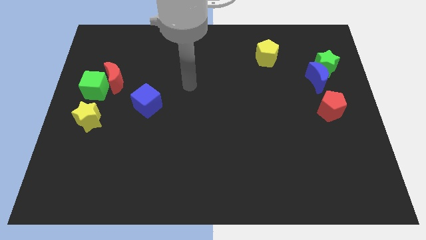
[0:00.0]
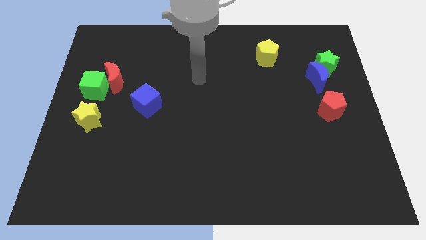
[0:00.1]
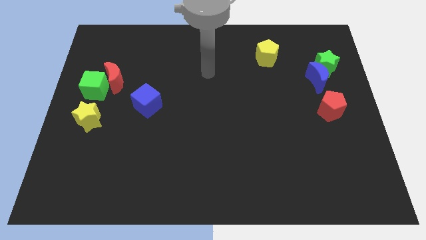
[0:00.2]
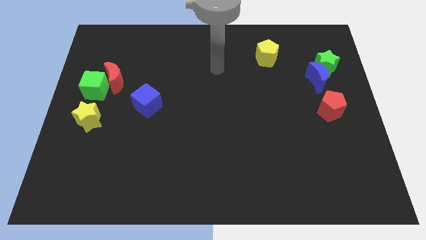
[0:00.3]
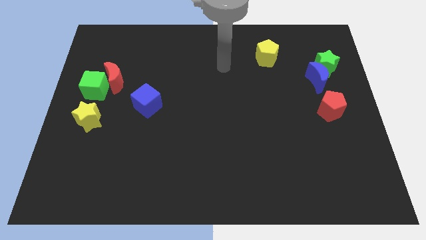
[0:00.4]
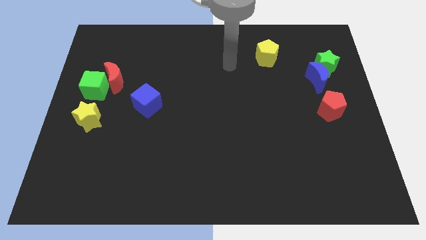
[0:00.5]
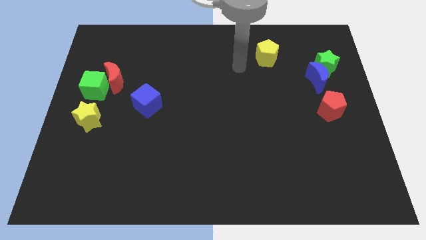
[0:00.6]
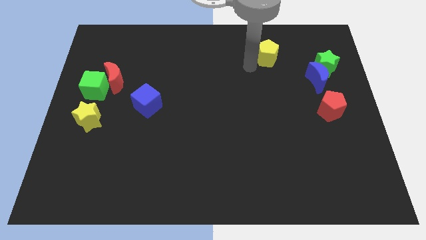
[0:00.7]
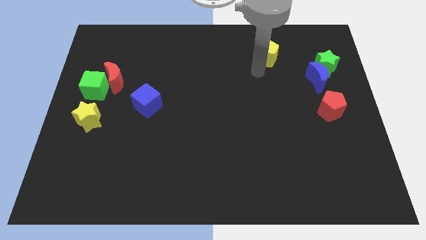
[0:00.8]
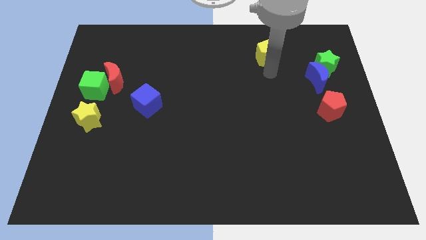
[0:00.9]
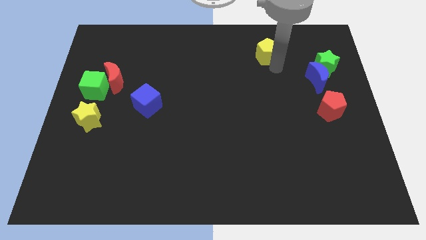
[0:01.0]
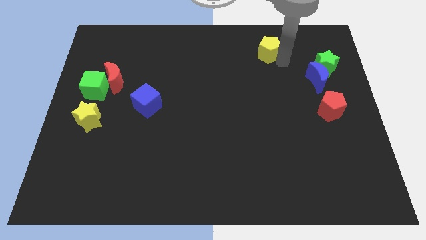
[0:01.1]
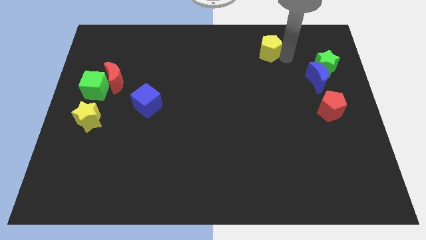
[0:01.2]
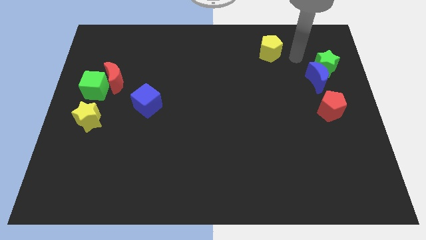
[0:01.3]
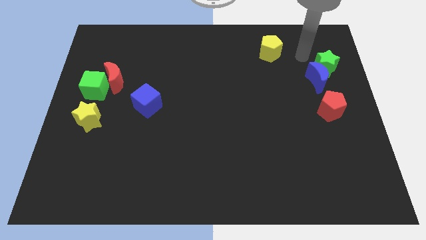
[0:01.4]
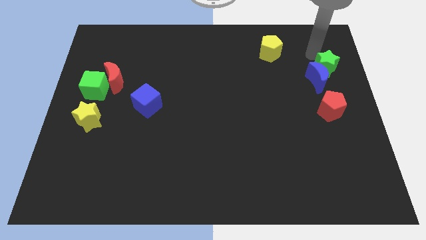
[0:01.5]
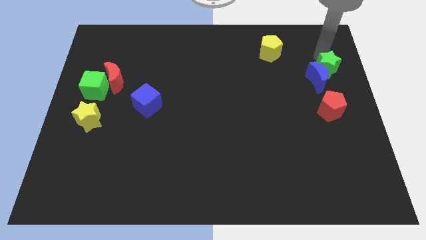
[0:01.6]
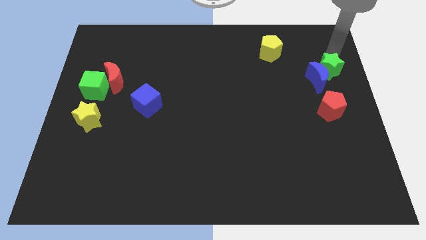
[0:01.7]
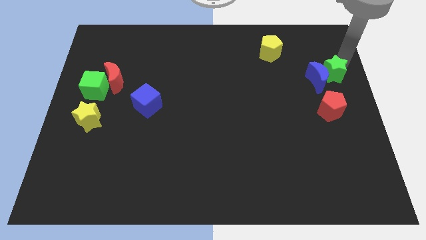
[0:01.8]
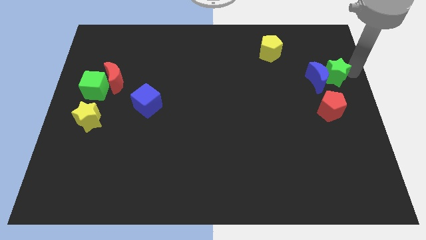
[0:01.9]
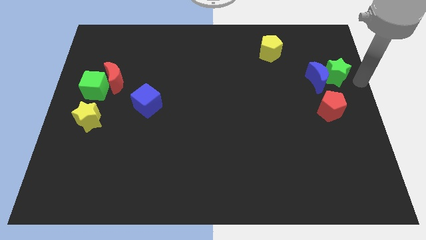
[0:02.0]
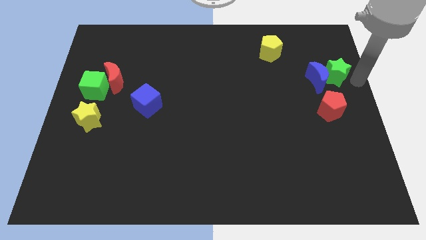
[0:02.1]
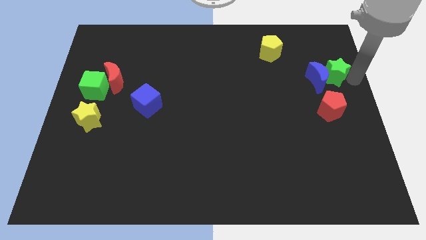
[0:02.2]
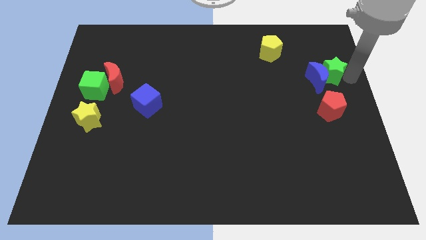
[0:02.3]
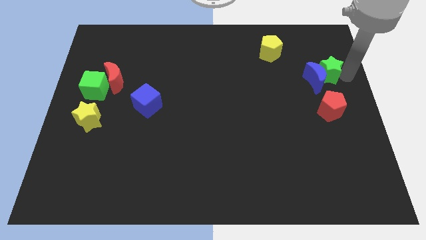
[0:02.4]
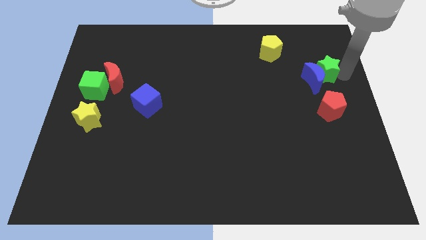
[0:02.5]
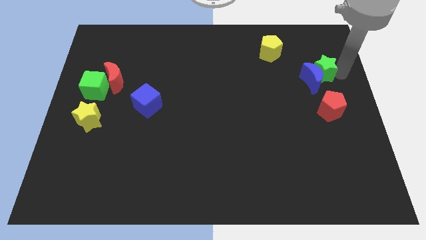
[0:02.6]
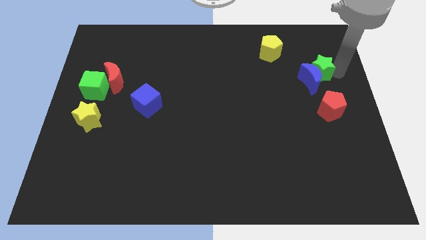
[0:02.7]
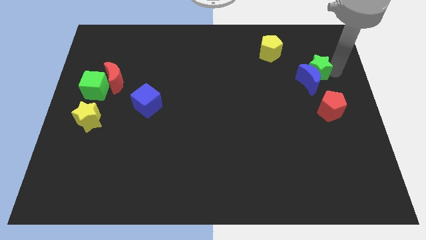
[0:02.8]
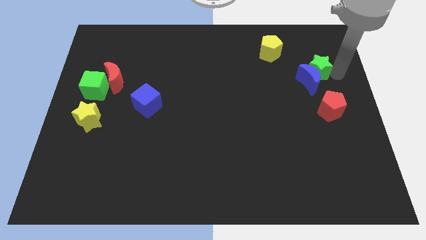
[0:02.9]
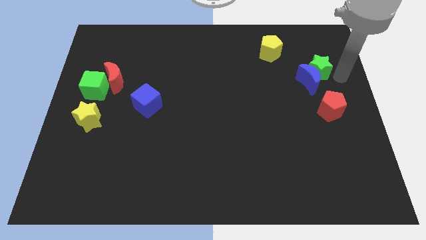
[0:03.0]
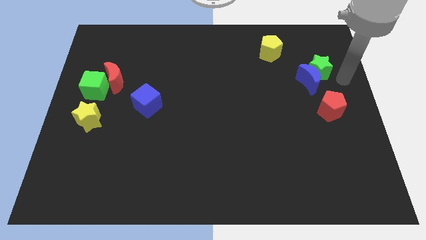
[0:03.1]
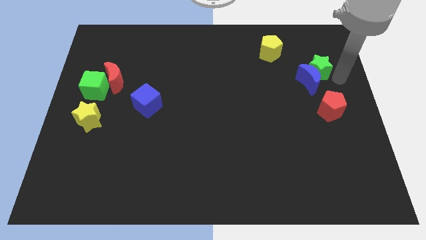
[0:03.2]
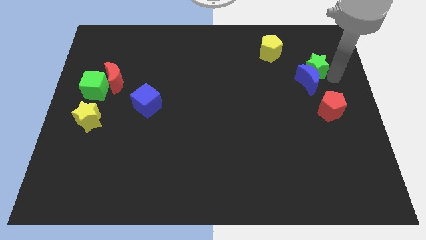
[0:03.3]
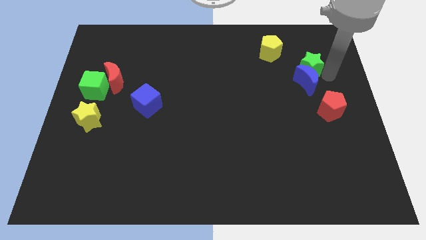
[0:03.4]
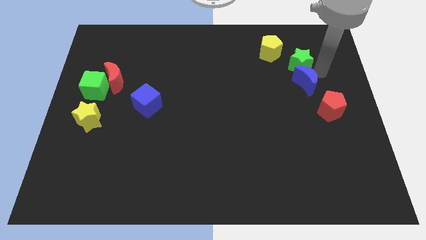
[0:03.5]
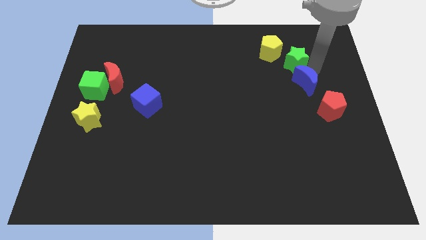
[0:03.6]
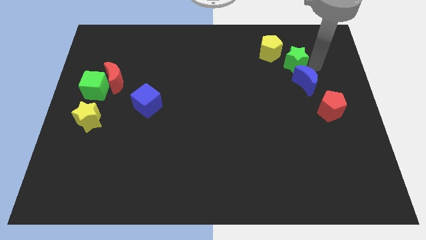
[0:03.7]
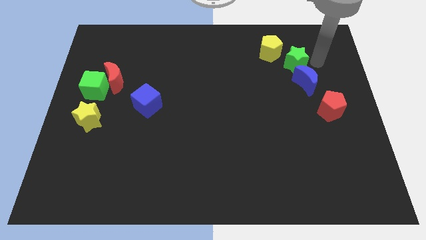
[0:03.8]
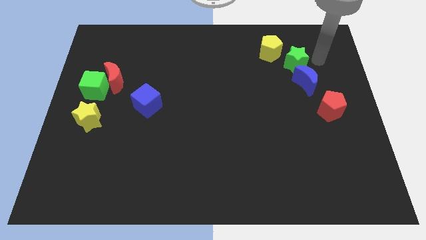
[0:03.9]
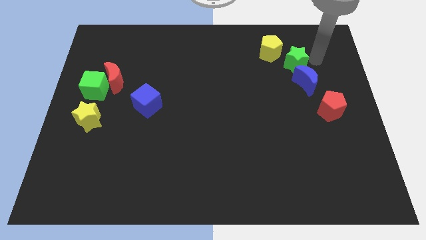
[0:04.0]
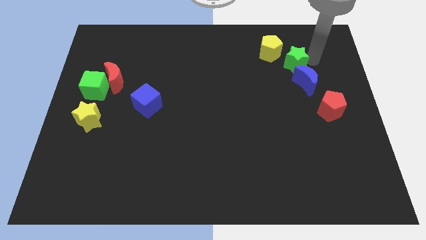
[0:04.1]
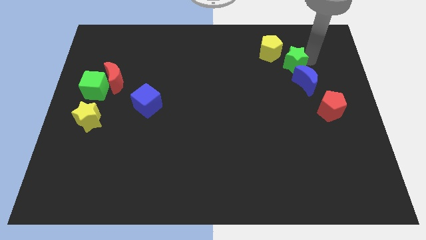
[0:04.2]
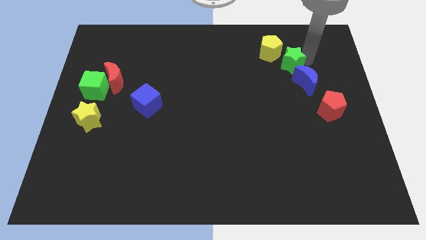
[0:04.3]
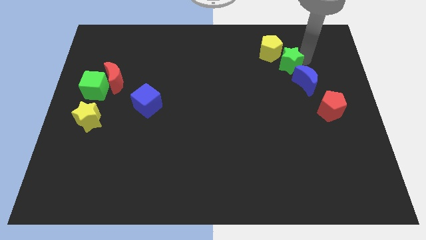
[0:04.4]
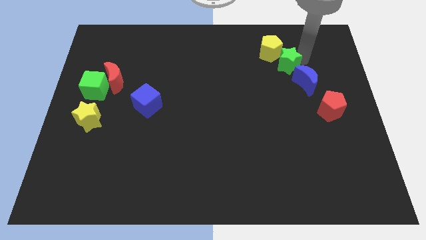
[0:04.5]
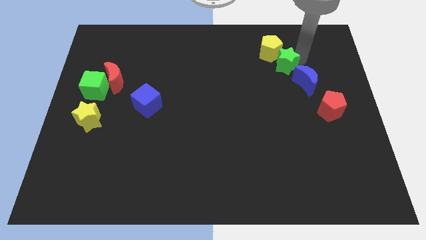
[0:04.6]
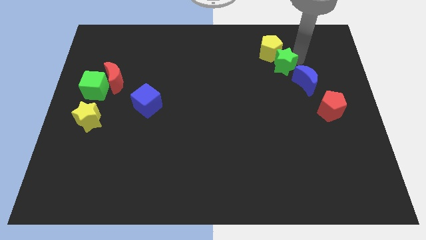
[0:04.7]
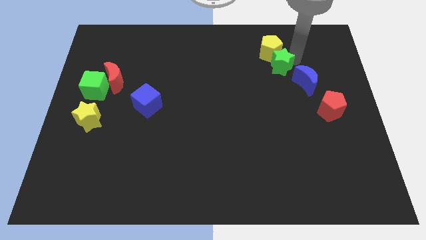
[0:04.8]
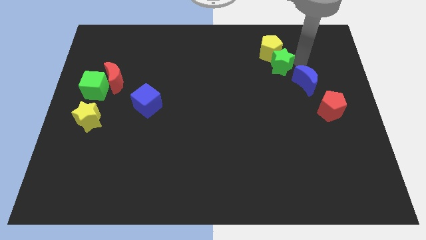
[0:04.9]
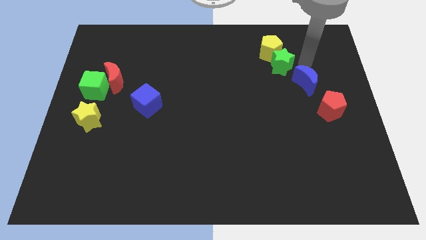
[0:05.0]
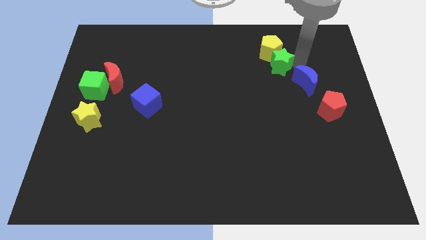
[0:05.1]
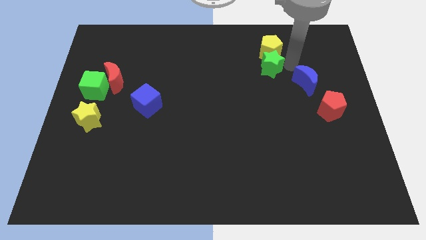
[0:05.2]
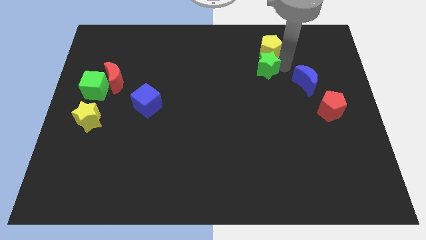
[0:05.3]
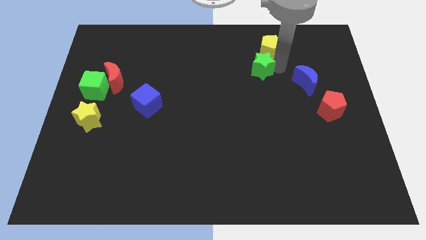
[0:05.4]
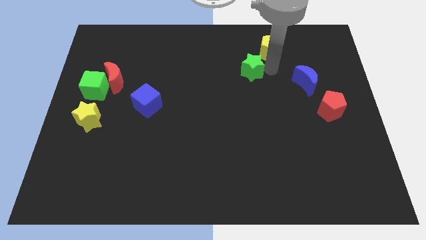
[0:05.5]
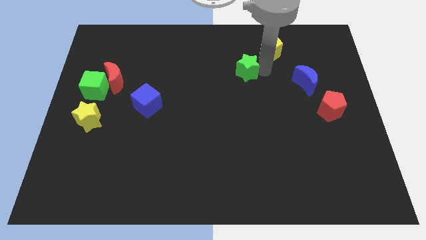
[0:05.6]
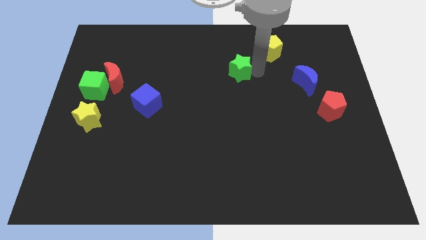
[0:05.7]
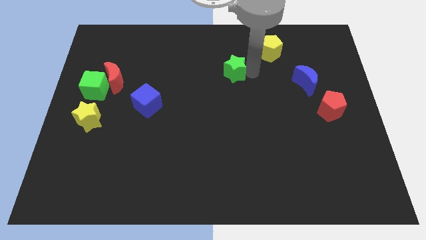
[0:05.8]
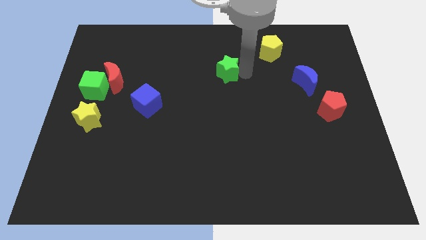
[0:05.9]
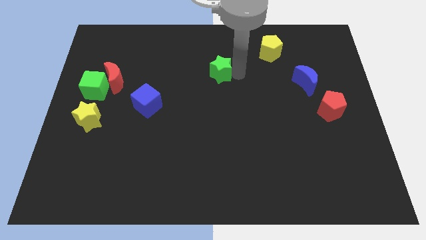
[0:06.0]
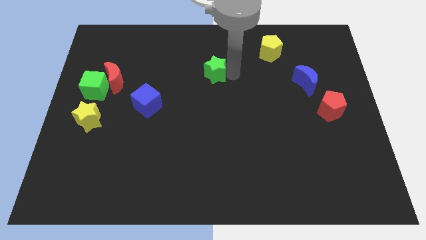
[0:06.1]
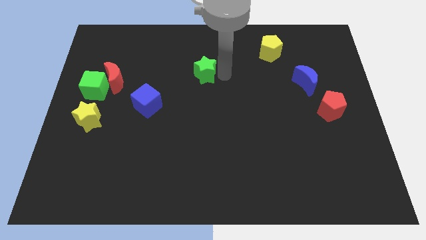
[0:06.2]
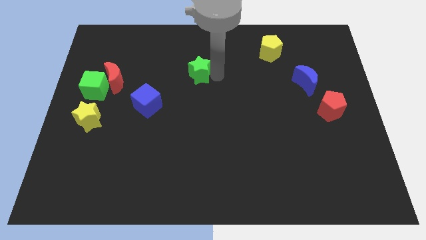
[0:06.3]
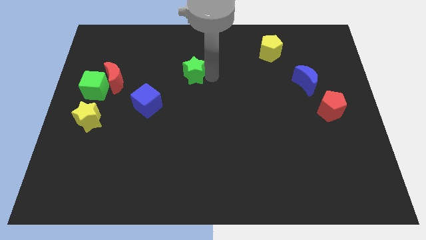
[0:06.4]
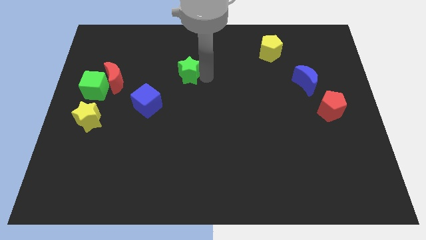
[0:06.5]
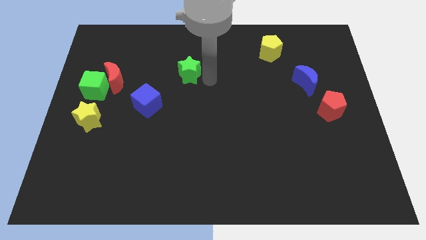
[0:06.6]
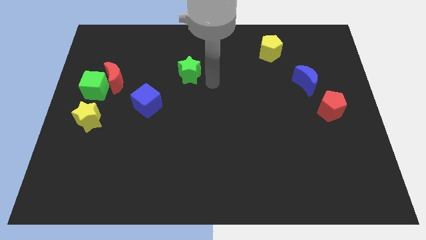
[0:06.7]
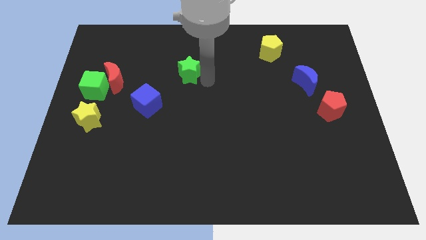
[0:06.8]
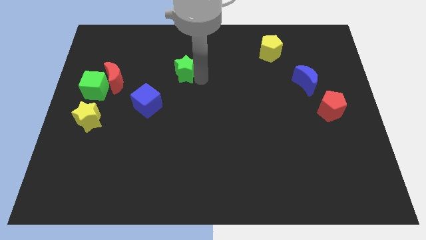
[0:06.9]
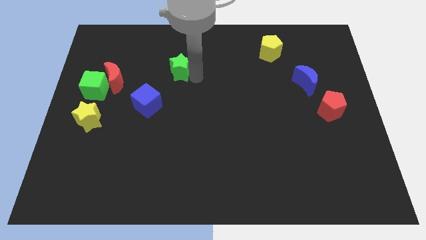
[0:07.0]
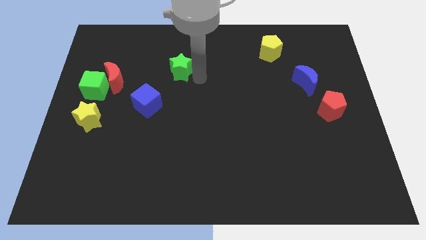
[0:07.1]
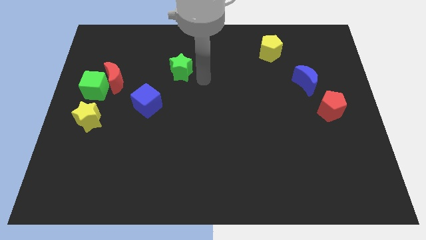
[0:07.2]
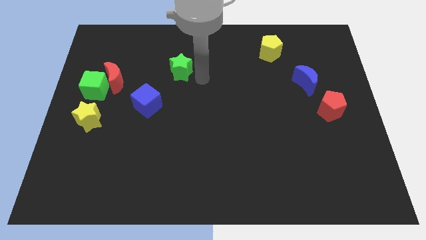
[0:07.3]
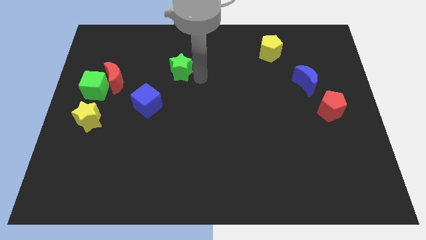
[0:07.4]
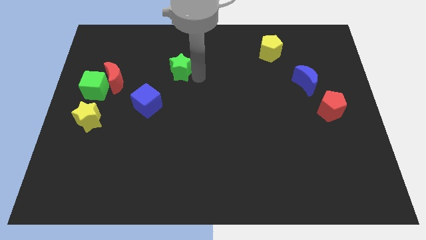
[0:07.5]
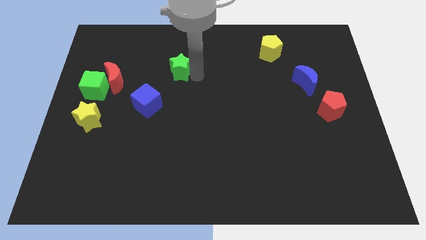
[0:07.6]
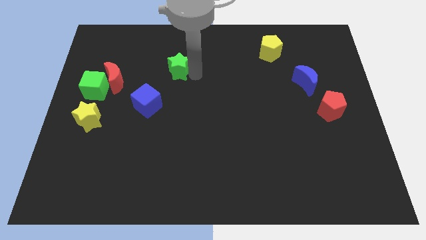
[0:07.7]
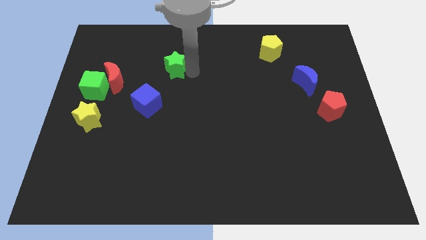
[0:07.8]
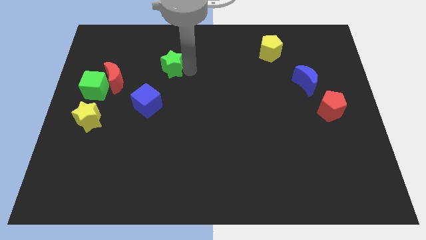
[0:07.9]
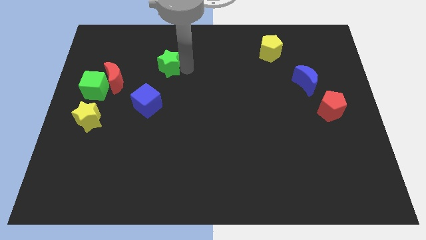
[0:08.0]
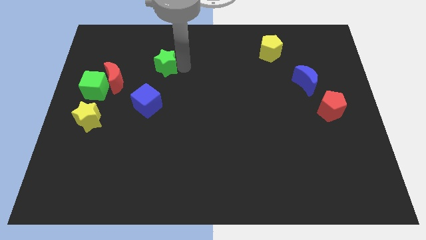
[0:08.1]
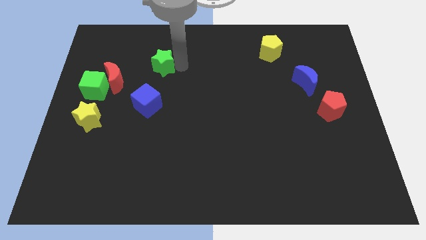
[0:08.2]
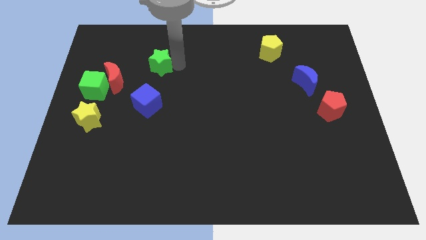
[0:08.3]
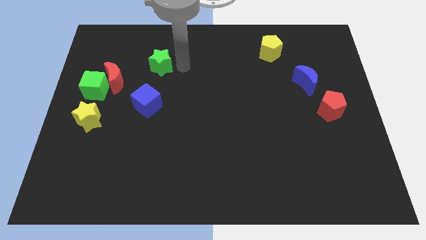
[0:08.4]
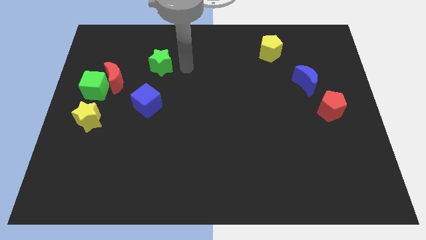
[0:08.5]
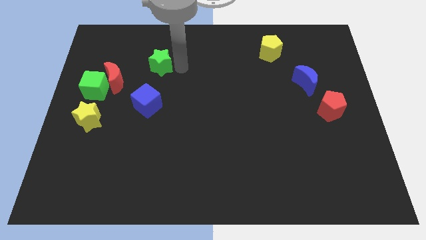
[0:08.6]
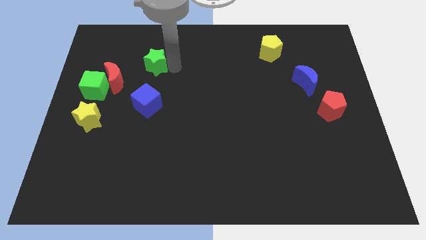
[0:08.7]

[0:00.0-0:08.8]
push the green star to the top right of the red moon
